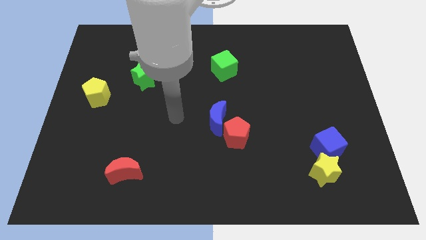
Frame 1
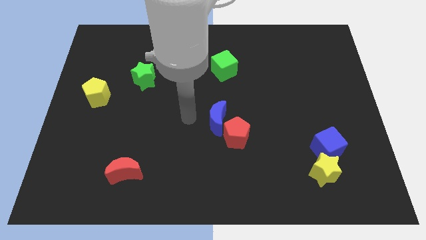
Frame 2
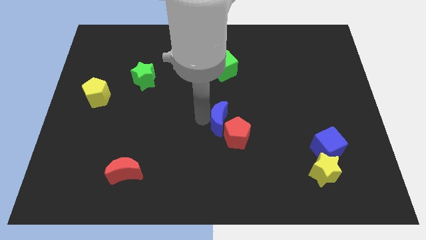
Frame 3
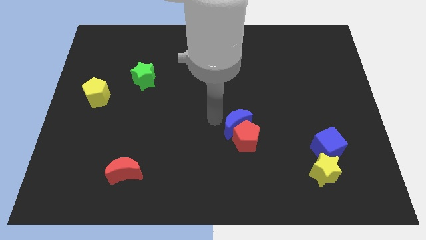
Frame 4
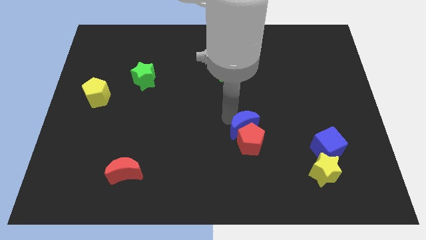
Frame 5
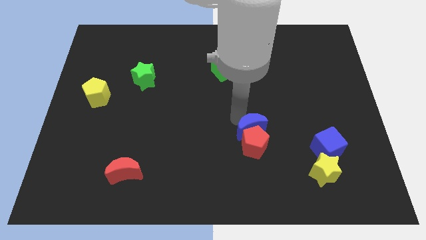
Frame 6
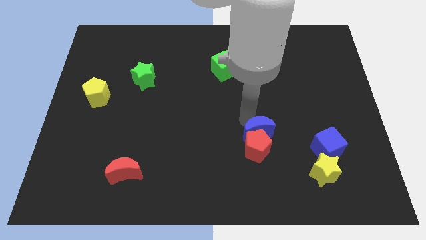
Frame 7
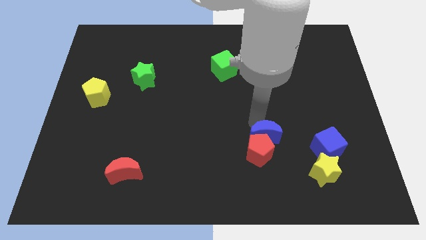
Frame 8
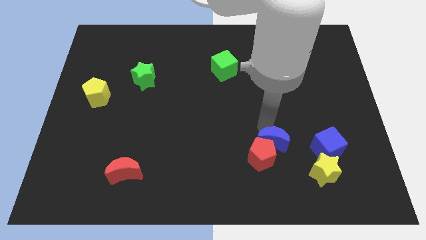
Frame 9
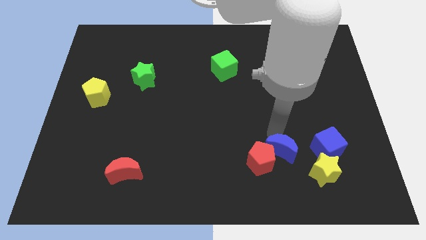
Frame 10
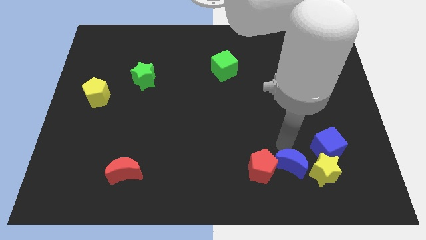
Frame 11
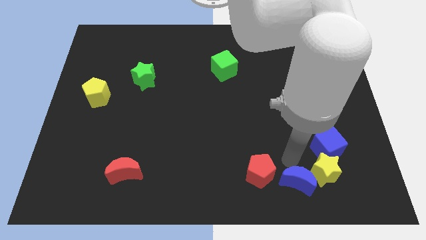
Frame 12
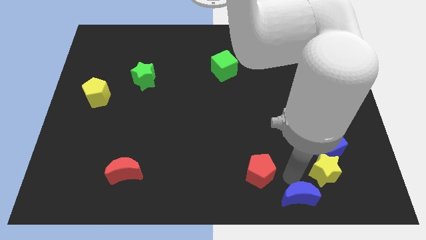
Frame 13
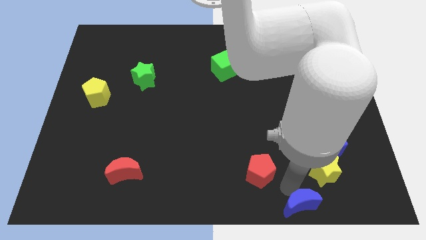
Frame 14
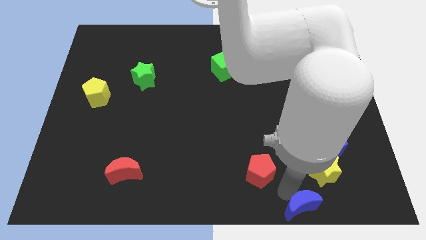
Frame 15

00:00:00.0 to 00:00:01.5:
separate the red pentagon from the blue moon

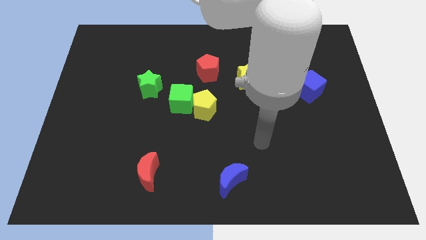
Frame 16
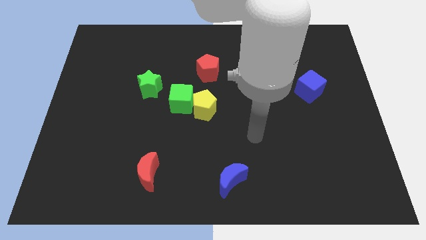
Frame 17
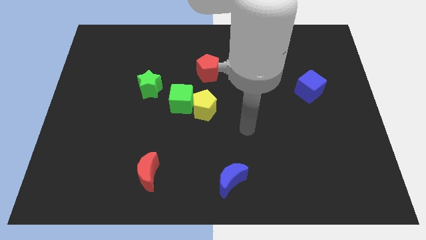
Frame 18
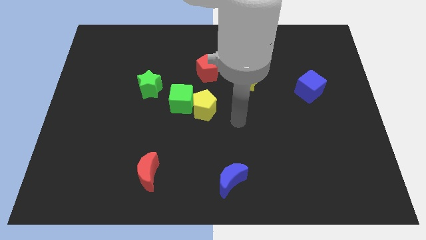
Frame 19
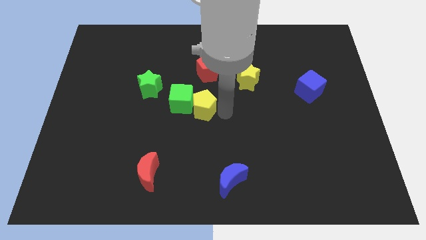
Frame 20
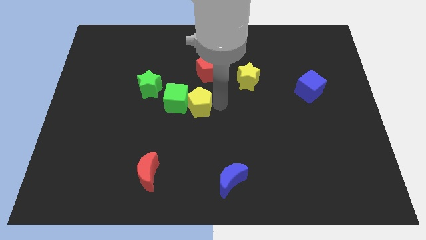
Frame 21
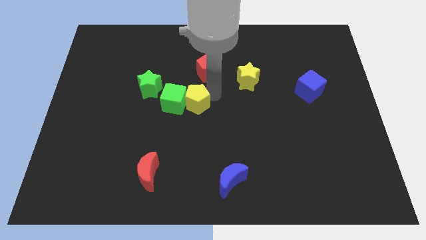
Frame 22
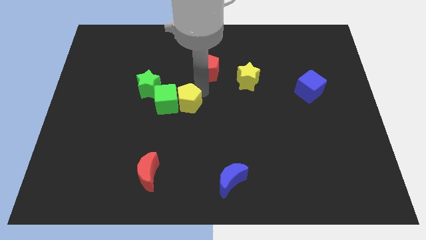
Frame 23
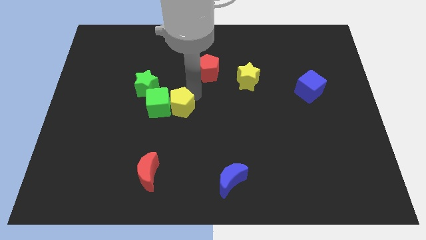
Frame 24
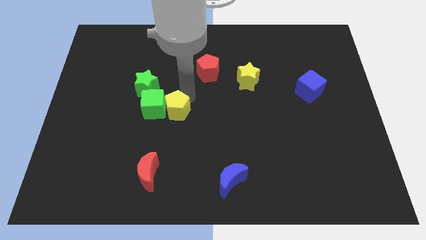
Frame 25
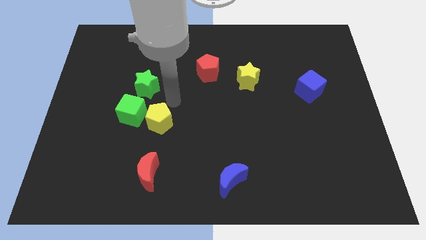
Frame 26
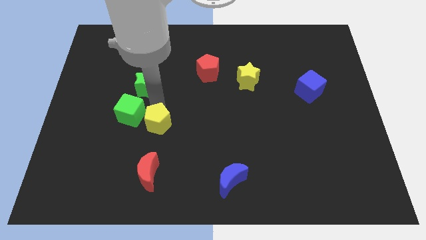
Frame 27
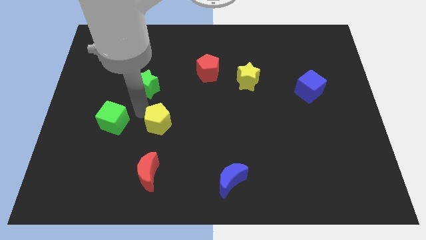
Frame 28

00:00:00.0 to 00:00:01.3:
move the yellow pentagon away from the green cube

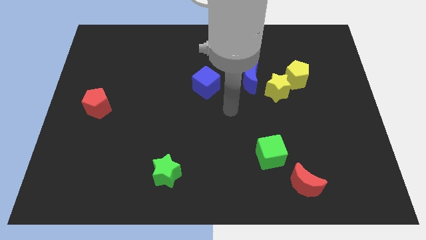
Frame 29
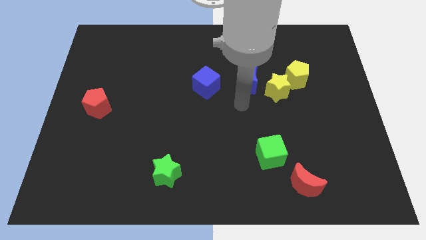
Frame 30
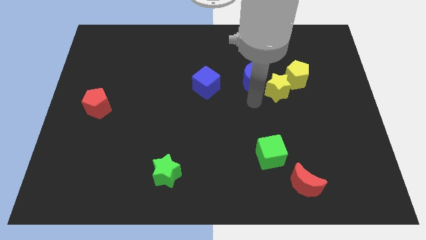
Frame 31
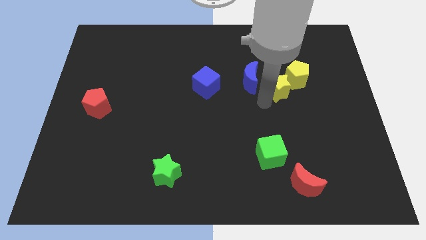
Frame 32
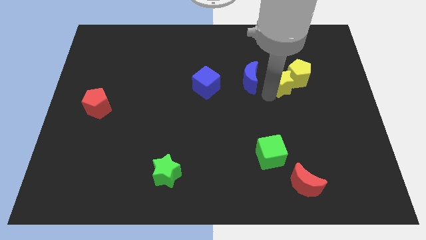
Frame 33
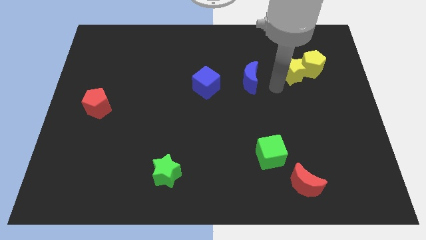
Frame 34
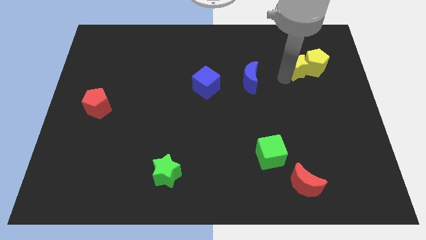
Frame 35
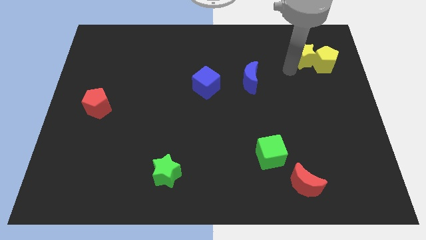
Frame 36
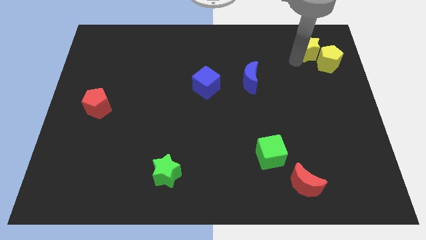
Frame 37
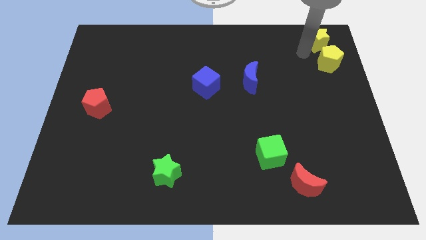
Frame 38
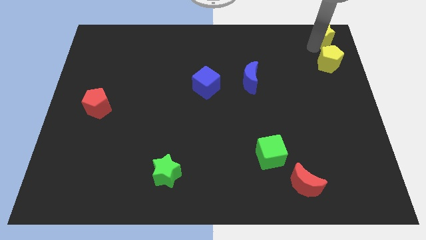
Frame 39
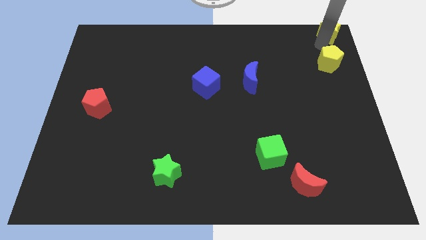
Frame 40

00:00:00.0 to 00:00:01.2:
separate the yellow pentagon from the yellow star

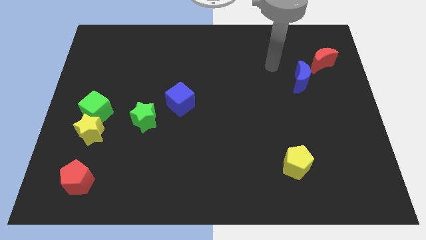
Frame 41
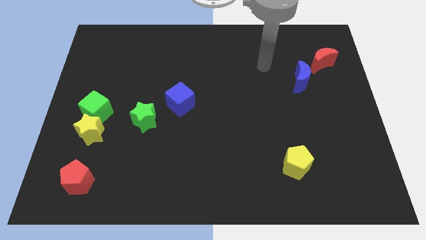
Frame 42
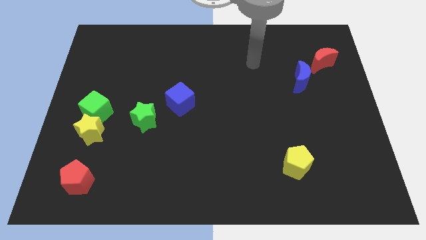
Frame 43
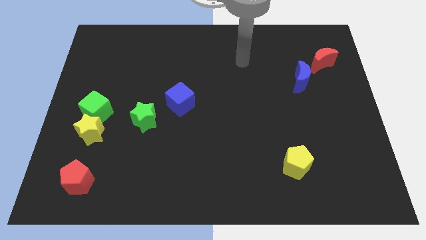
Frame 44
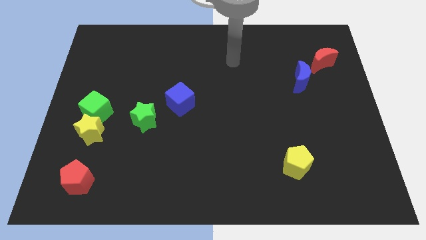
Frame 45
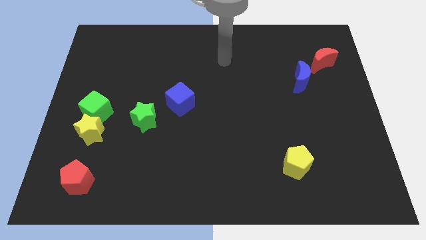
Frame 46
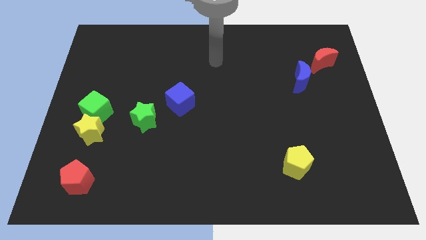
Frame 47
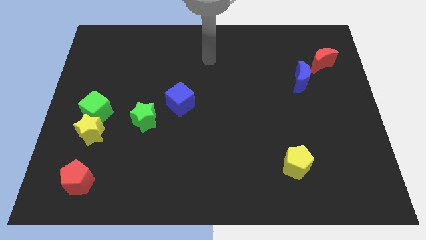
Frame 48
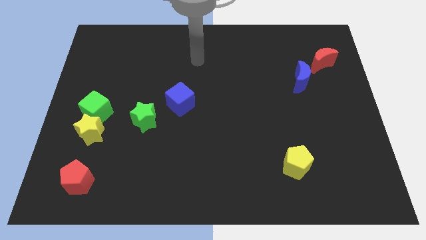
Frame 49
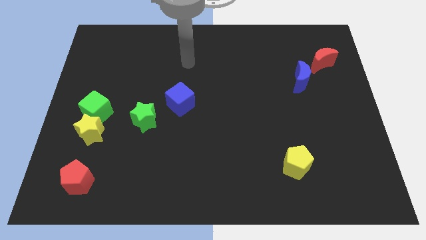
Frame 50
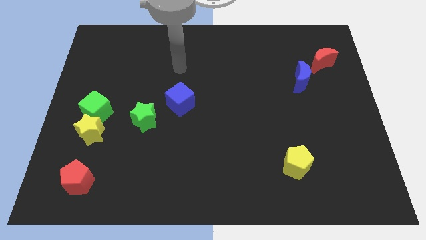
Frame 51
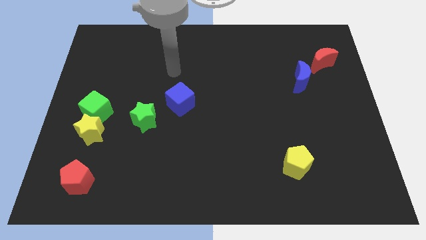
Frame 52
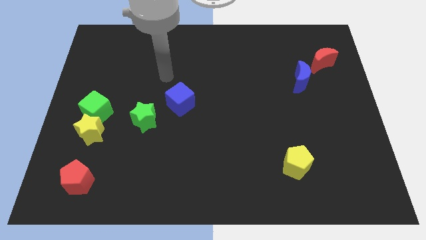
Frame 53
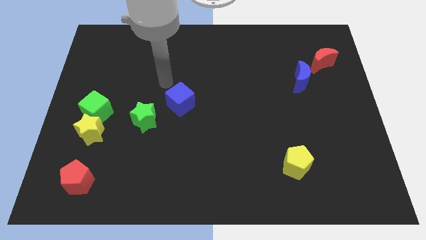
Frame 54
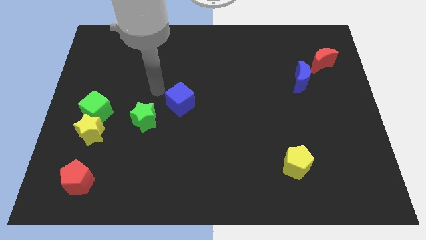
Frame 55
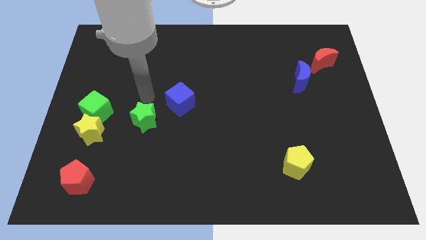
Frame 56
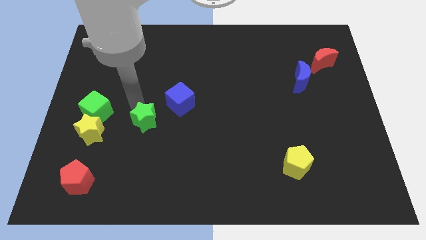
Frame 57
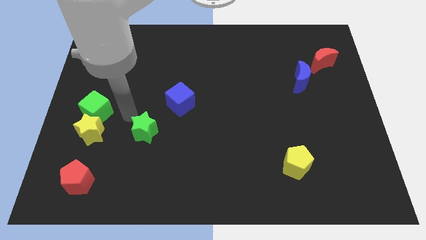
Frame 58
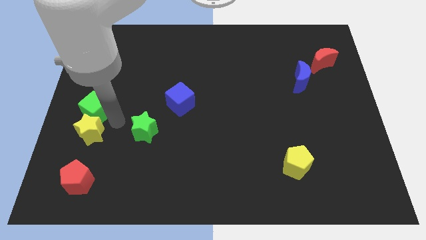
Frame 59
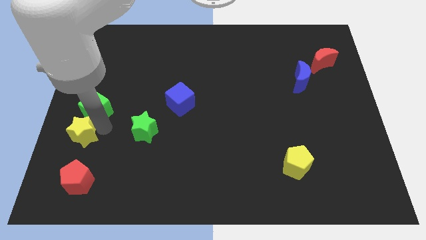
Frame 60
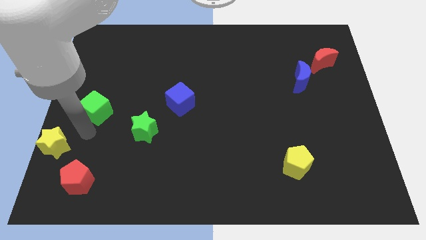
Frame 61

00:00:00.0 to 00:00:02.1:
pull the green cube apart from the yellow star

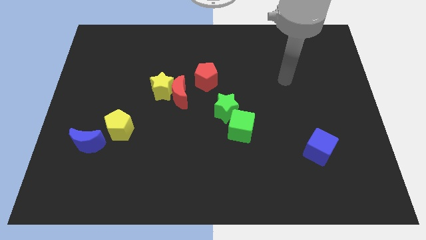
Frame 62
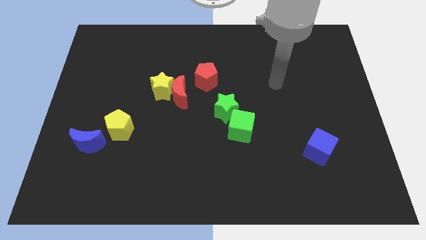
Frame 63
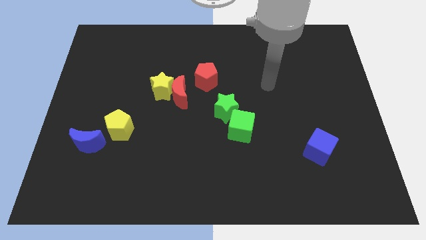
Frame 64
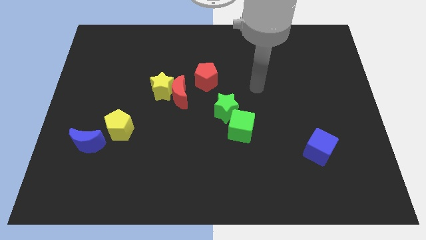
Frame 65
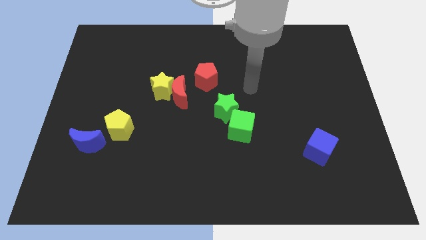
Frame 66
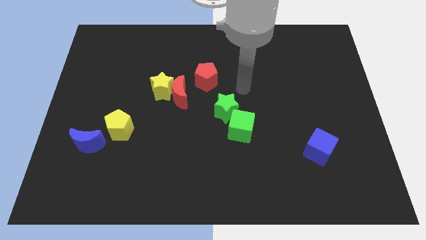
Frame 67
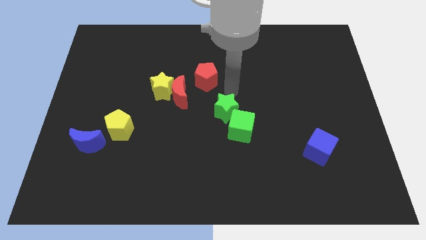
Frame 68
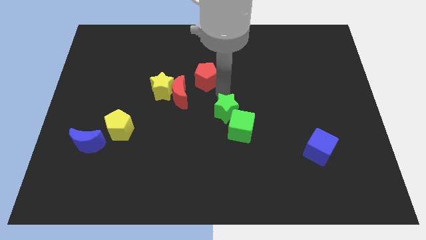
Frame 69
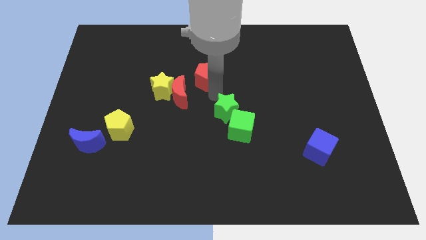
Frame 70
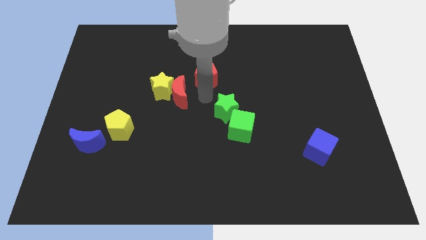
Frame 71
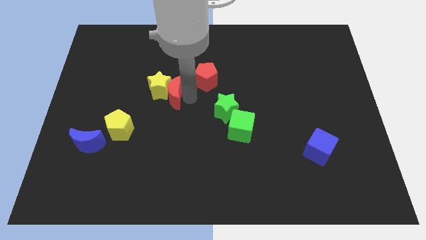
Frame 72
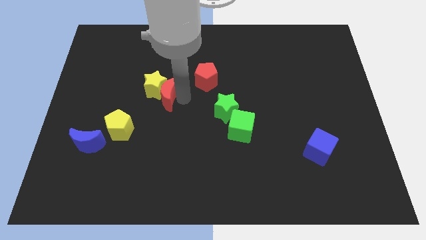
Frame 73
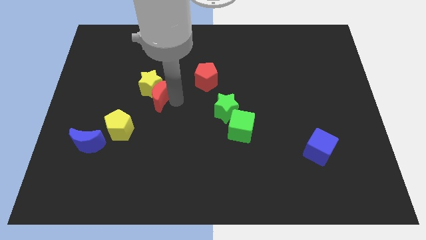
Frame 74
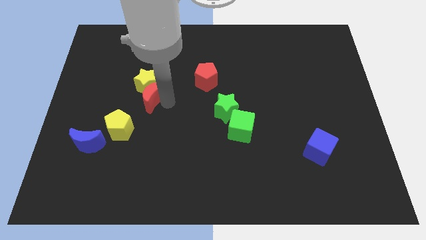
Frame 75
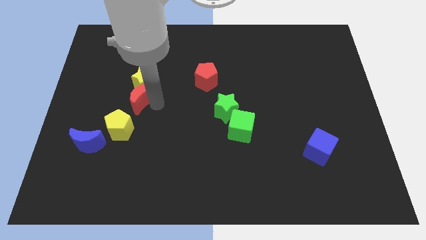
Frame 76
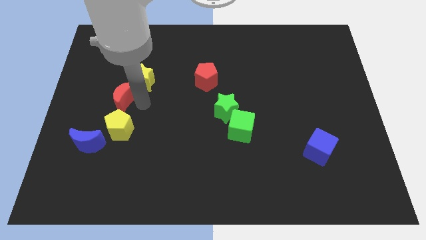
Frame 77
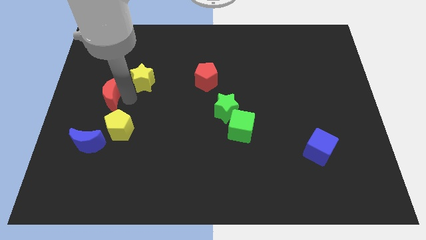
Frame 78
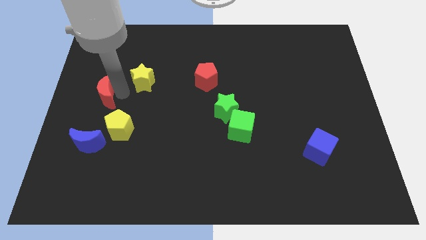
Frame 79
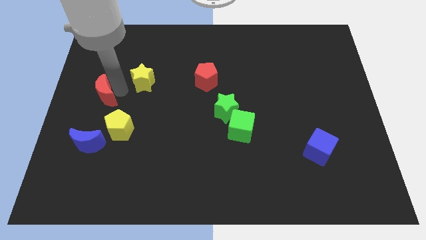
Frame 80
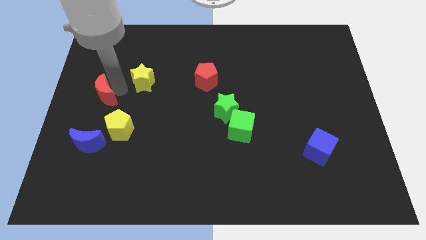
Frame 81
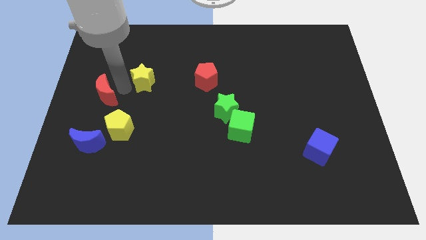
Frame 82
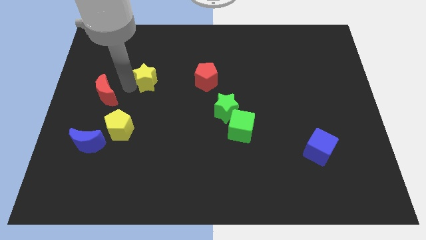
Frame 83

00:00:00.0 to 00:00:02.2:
move the yellow star away from the red moon

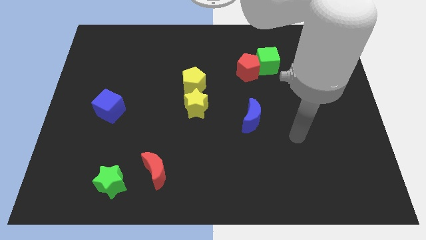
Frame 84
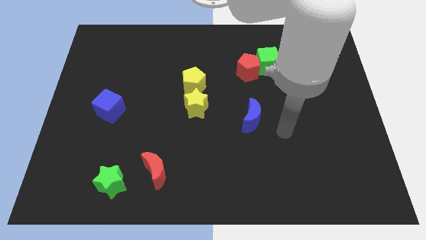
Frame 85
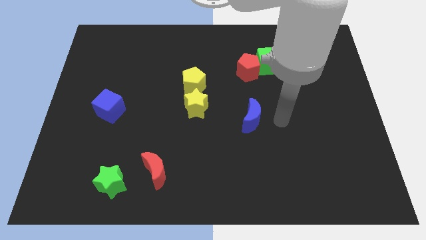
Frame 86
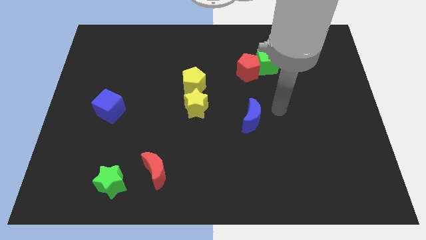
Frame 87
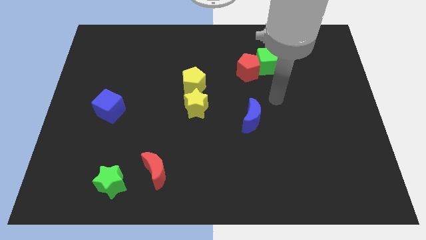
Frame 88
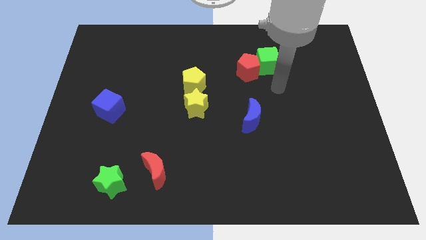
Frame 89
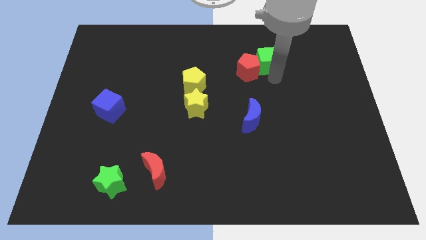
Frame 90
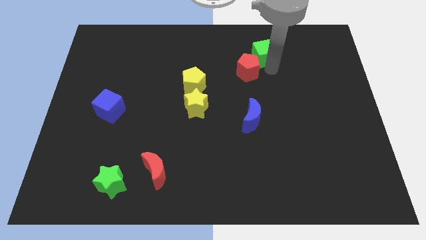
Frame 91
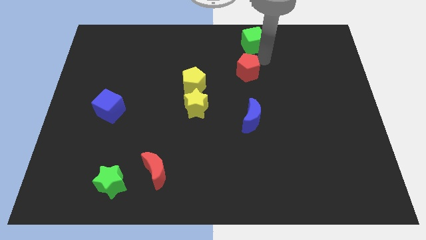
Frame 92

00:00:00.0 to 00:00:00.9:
move the red pentagon away from the green cube

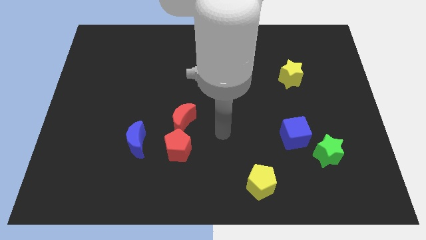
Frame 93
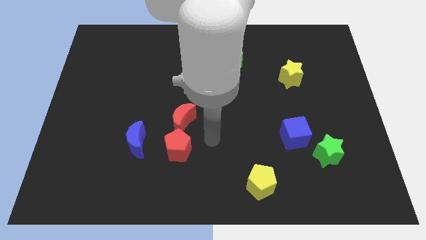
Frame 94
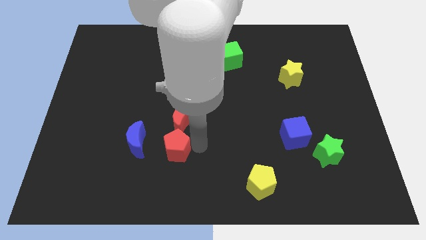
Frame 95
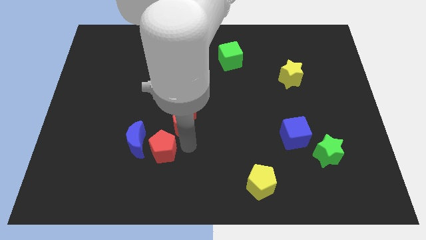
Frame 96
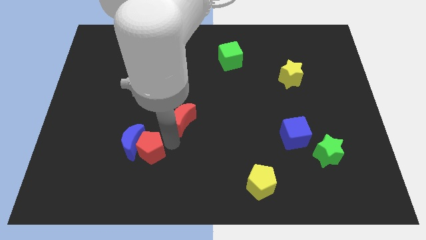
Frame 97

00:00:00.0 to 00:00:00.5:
pull the red moon apart from the red pentagon
